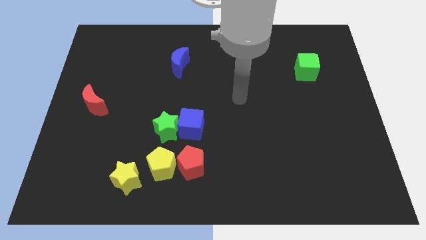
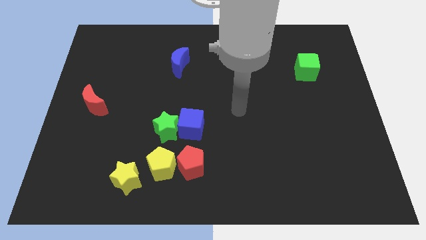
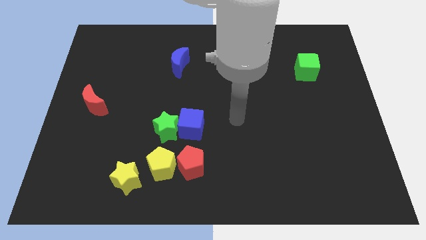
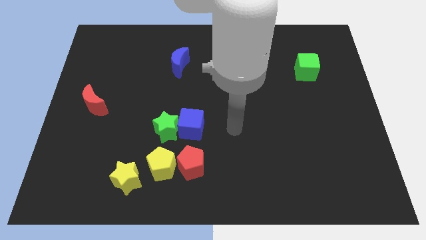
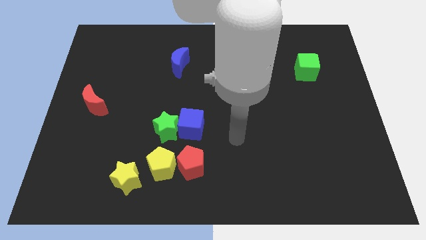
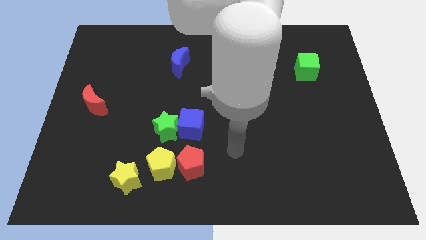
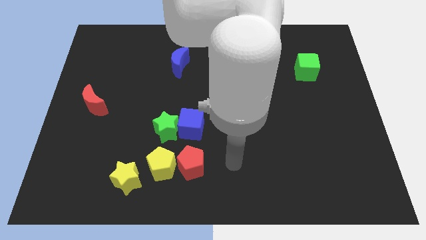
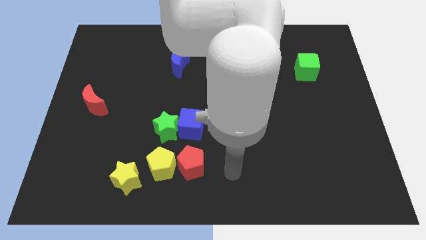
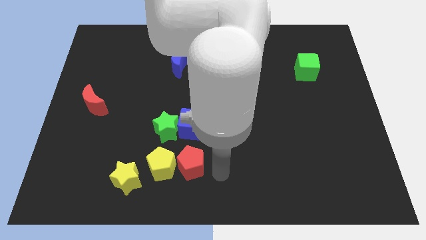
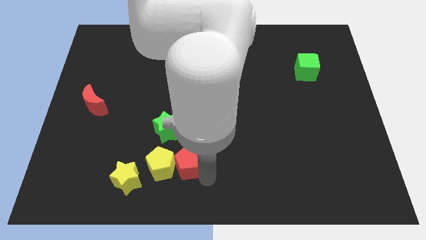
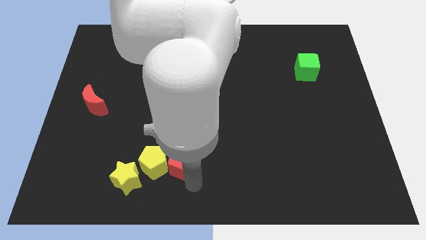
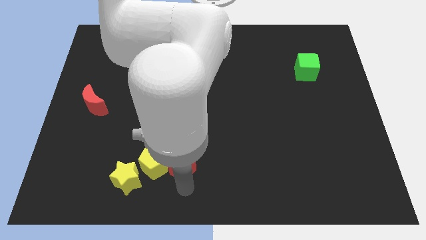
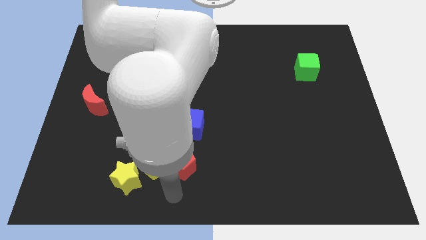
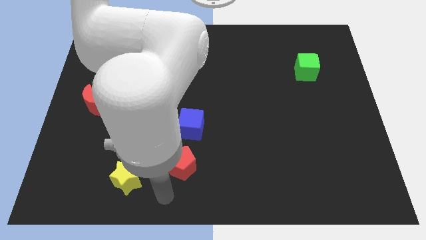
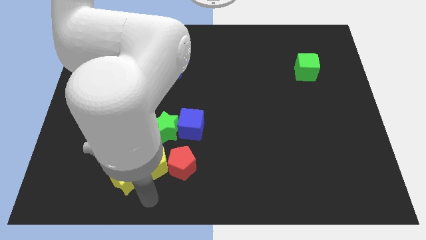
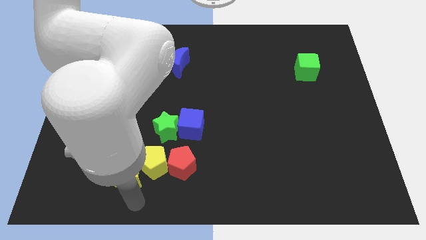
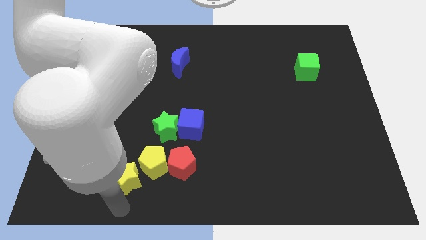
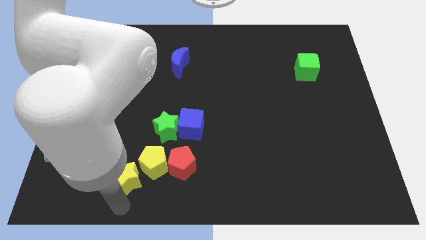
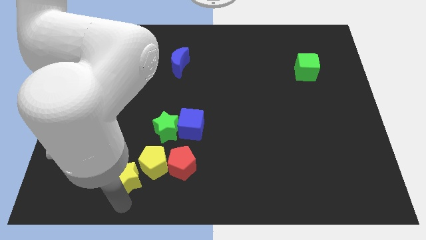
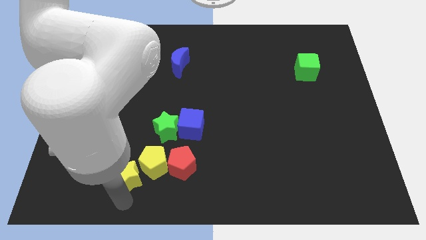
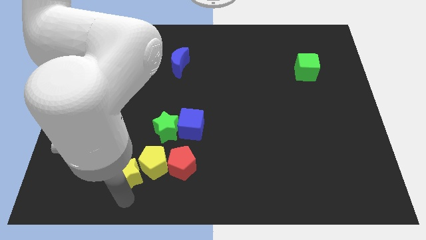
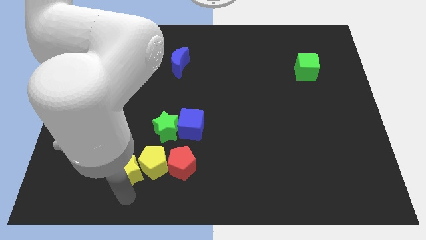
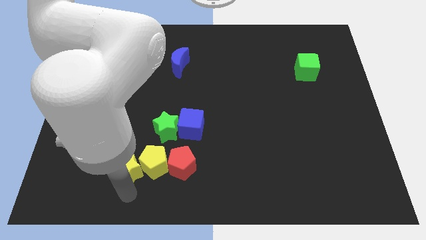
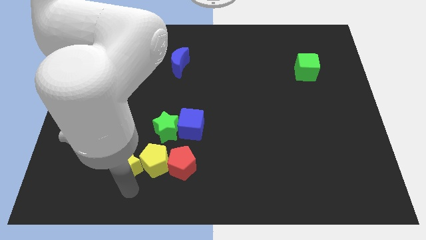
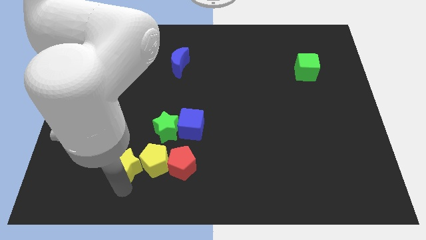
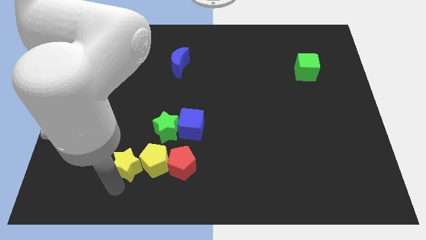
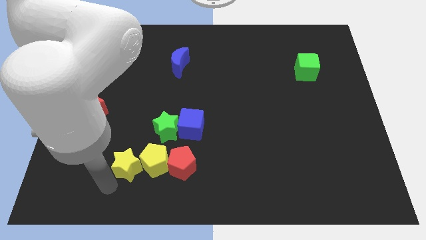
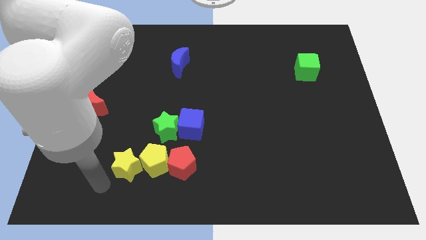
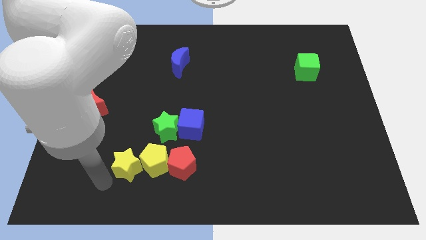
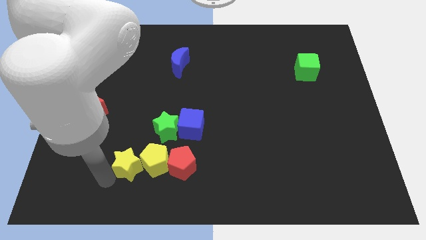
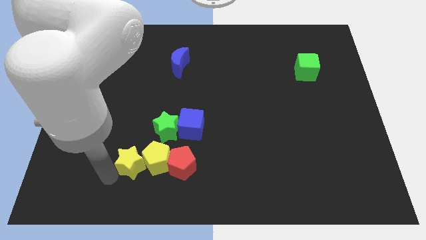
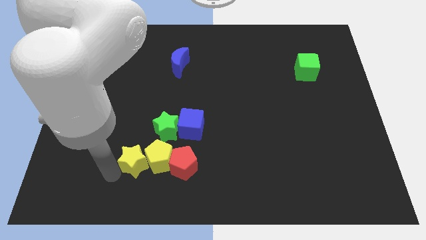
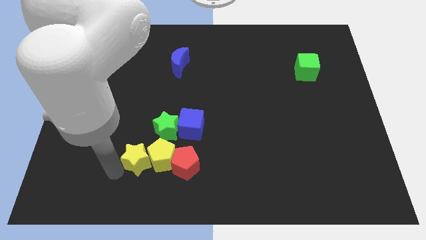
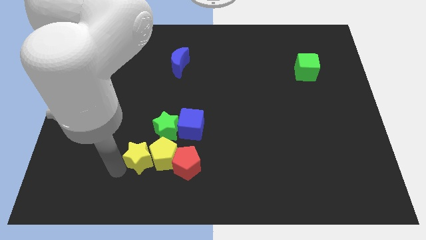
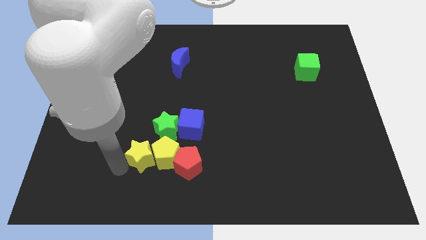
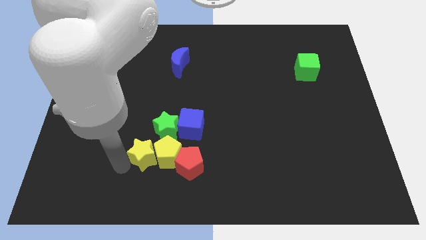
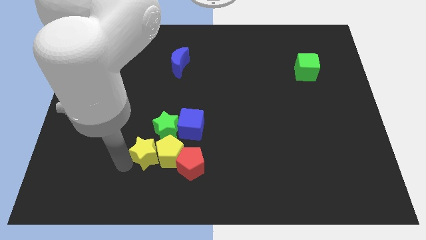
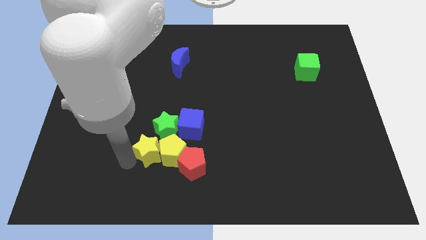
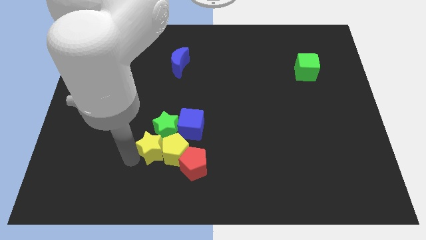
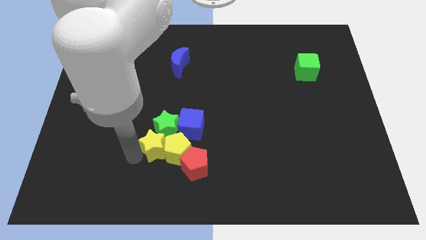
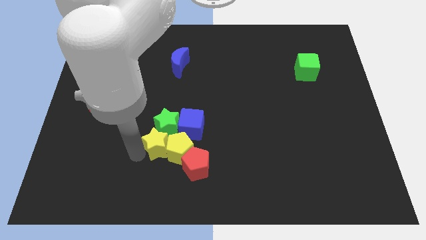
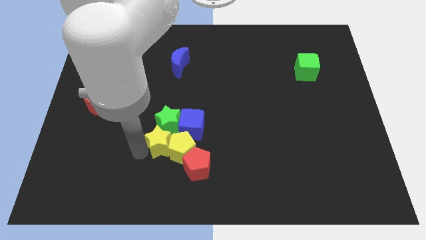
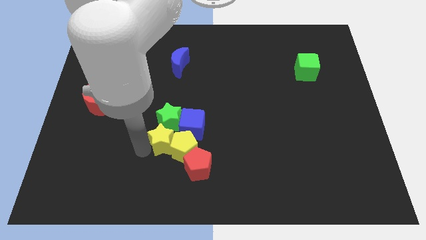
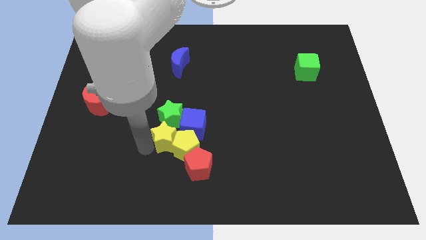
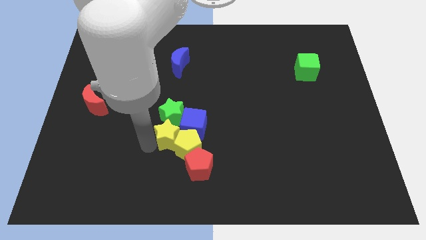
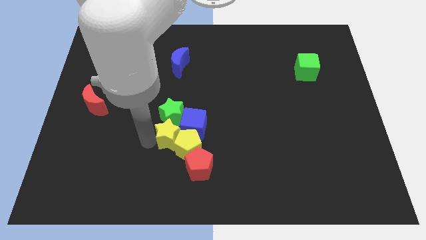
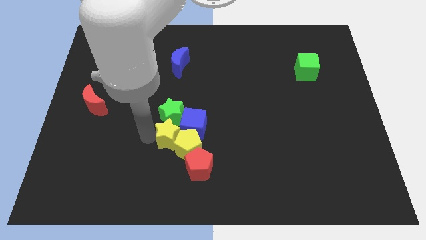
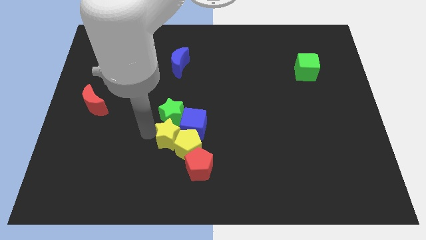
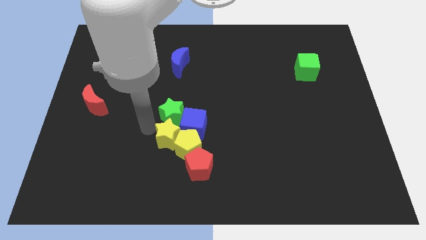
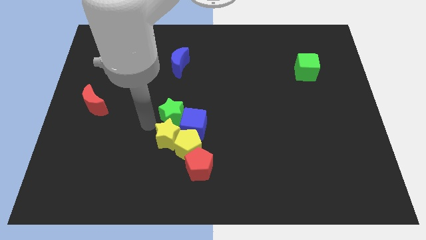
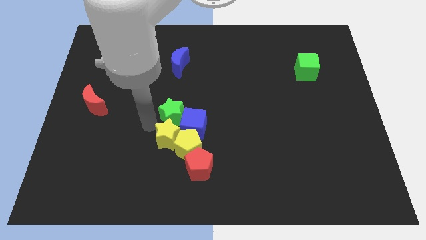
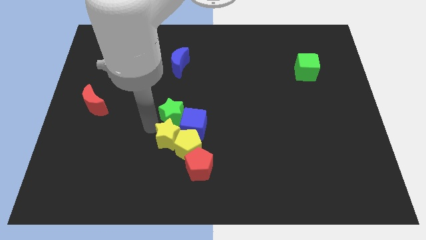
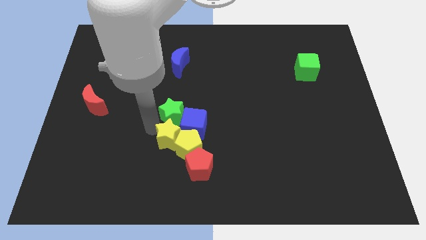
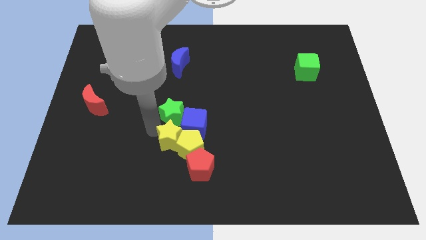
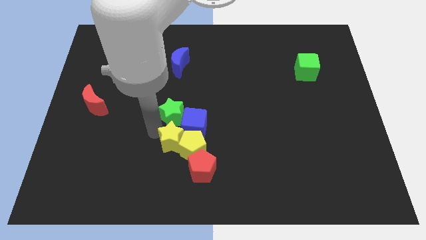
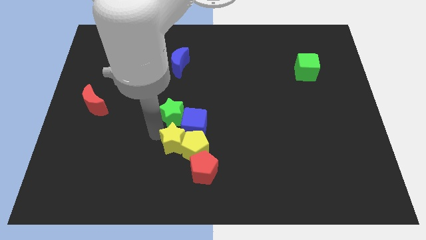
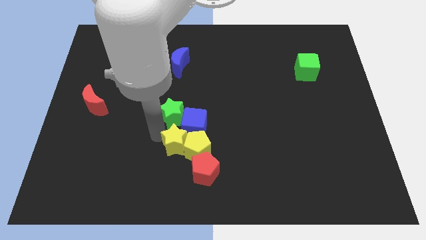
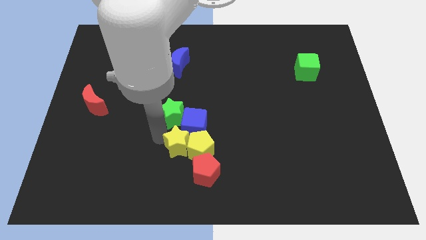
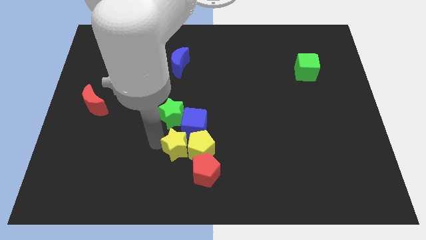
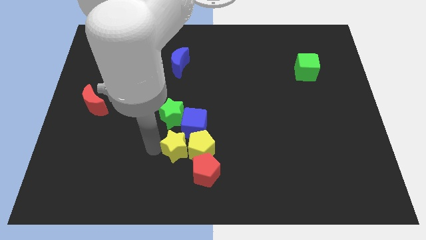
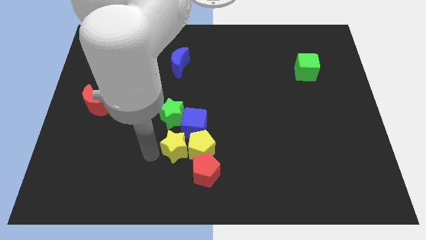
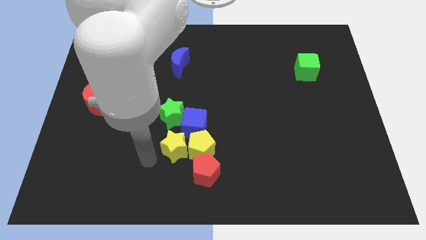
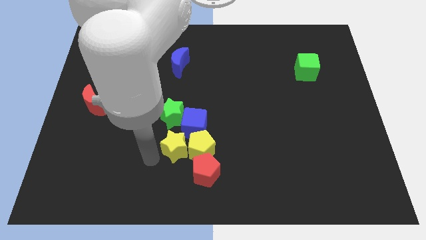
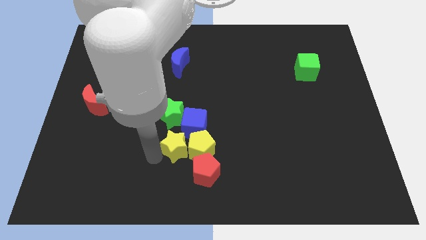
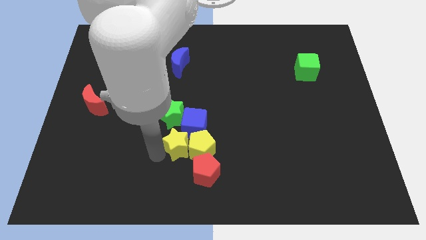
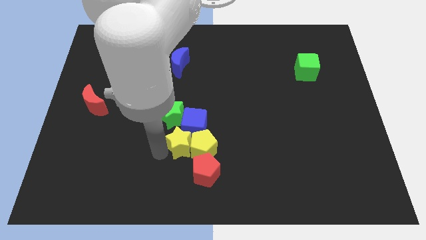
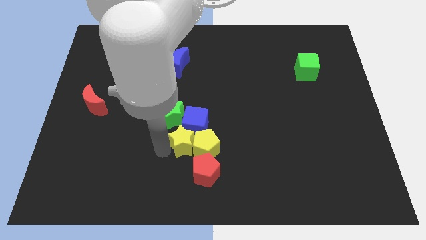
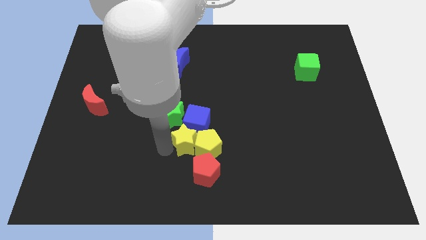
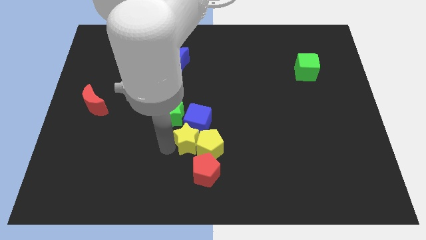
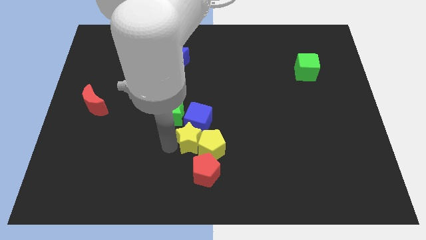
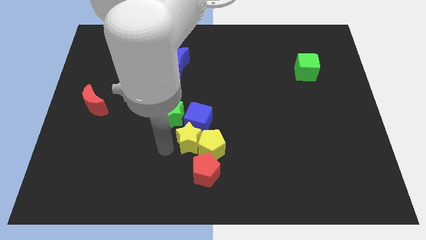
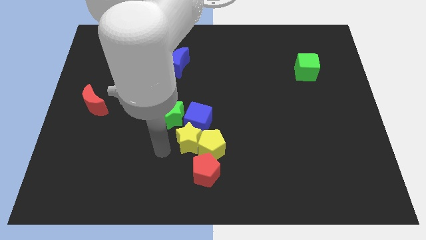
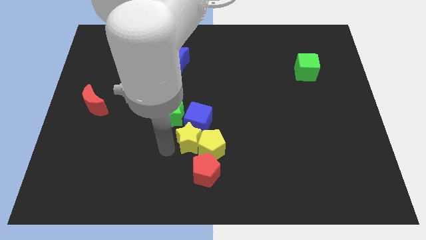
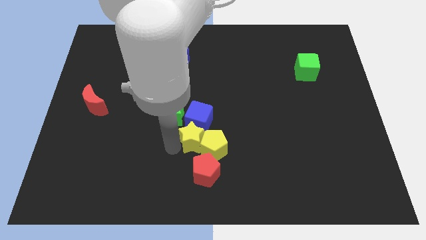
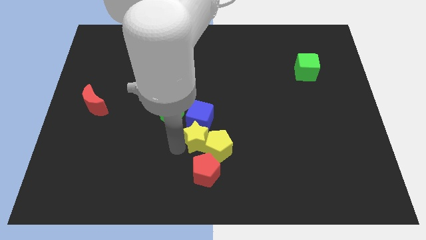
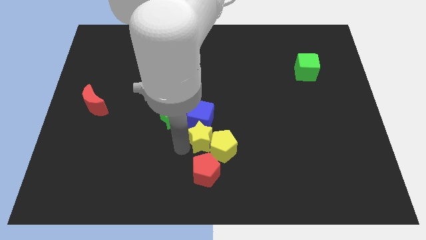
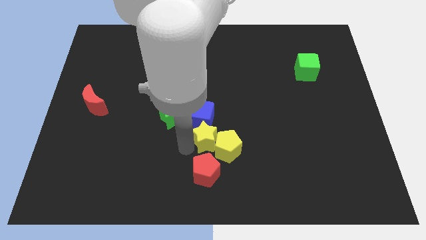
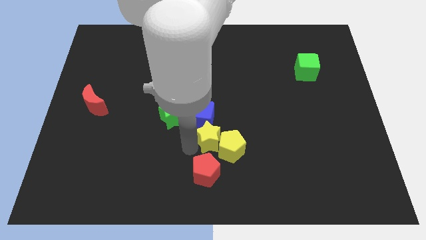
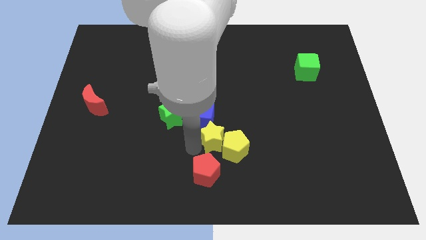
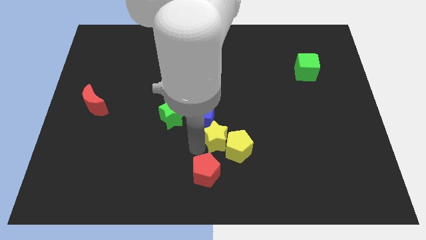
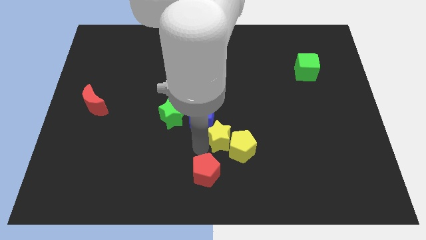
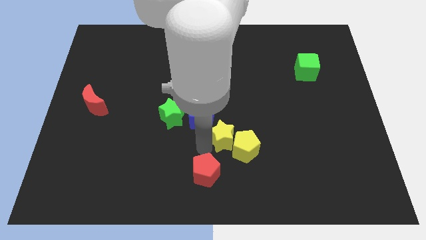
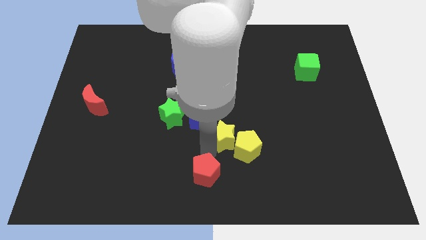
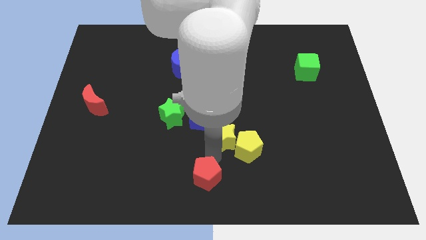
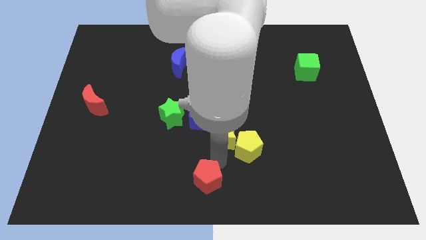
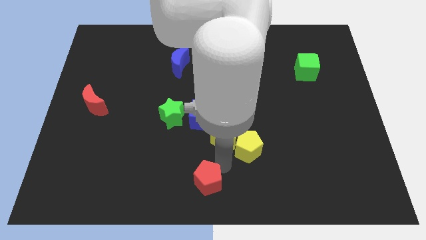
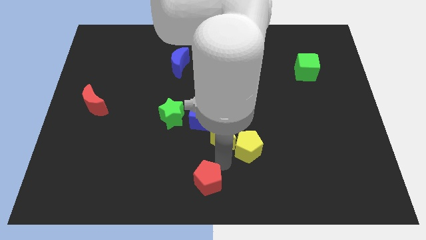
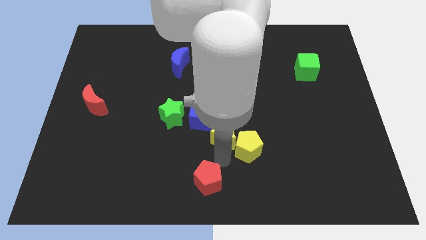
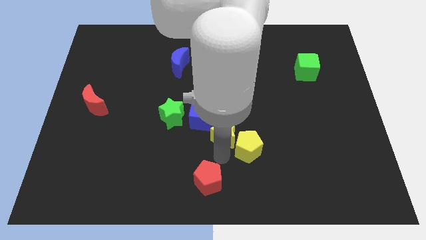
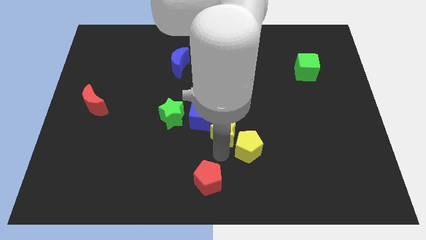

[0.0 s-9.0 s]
move the yellow star diagonally up and to the right
